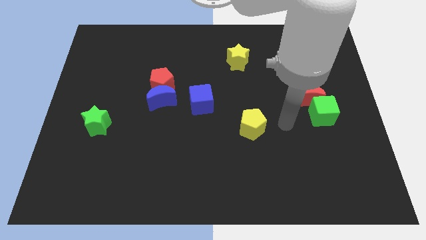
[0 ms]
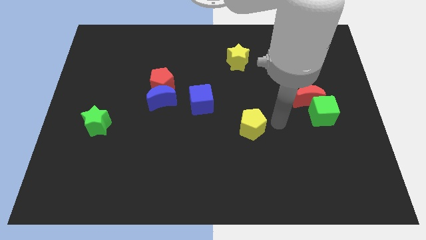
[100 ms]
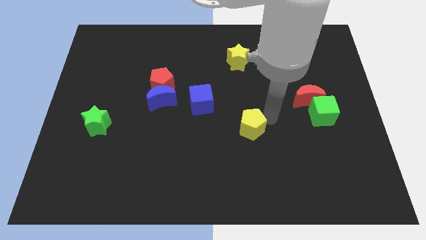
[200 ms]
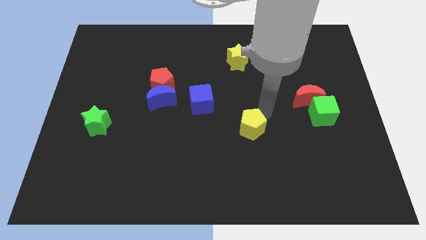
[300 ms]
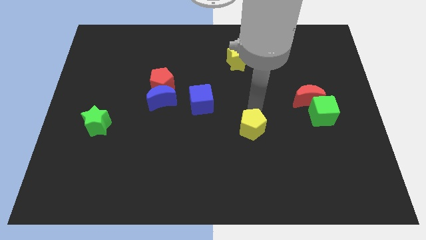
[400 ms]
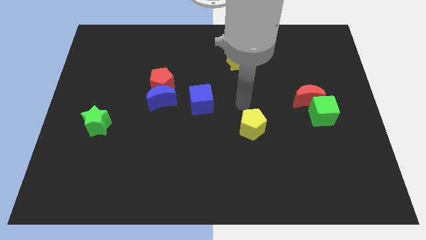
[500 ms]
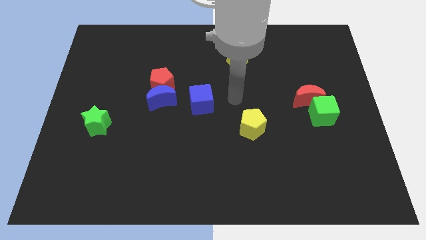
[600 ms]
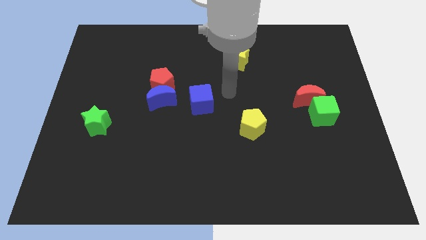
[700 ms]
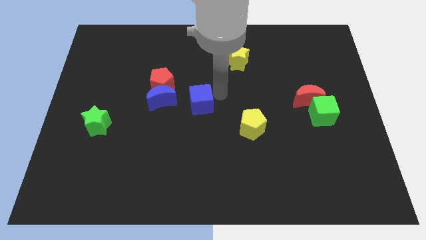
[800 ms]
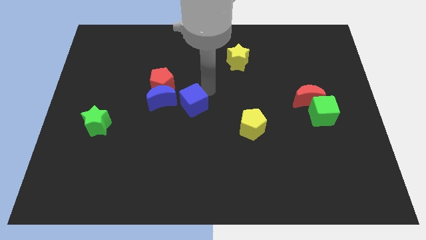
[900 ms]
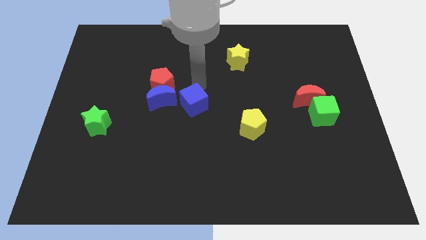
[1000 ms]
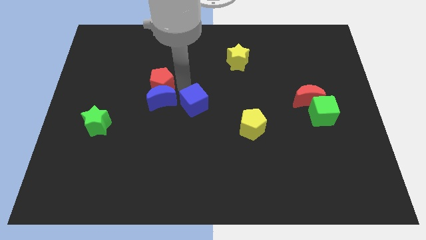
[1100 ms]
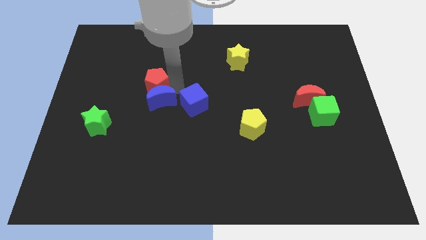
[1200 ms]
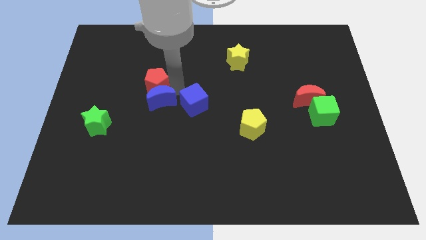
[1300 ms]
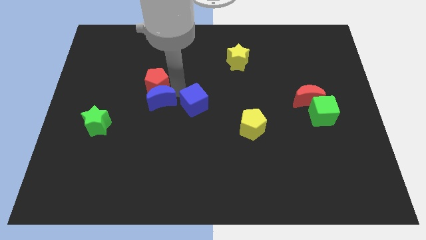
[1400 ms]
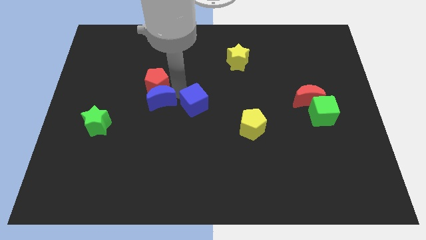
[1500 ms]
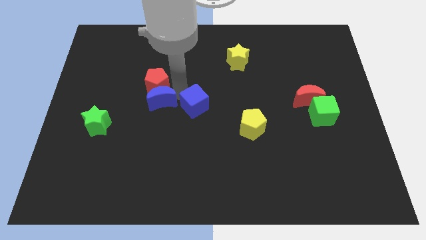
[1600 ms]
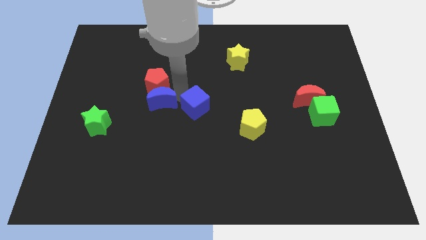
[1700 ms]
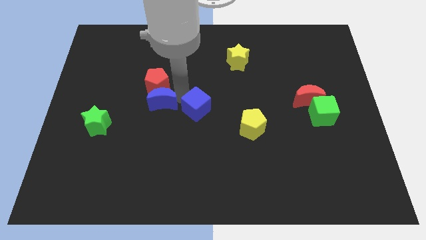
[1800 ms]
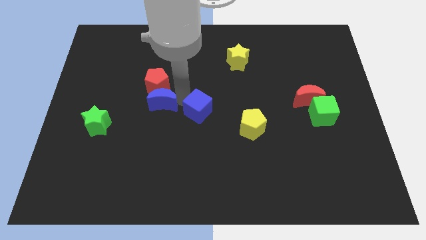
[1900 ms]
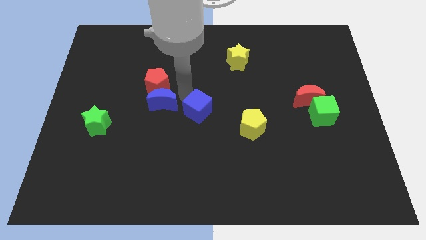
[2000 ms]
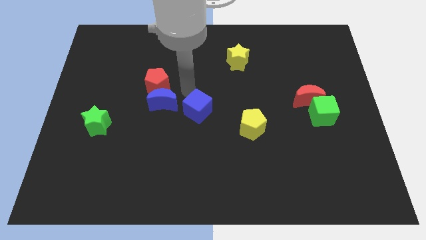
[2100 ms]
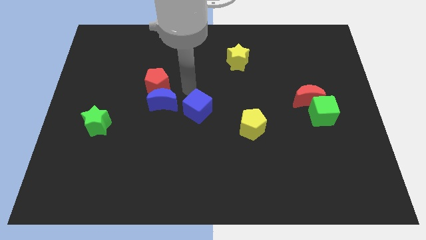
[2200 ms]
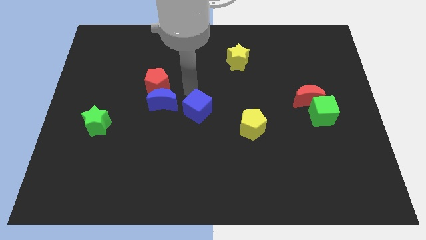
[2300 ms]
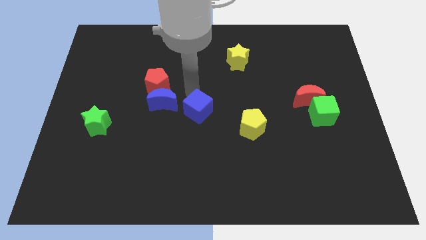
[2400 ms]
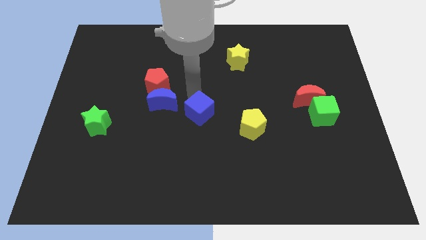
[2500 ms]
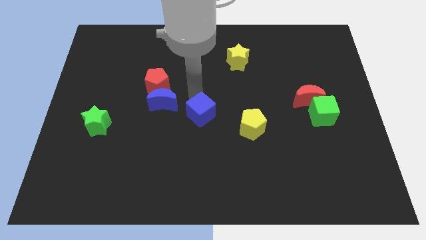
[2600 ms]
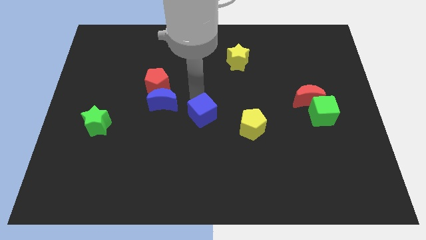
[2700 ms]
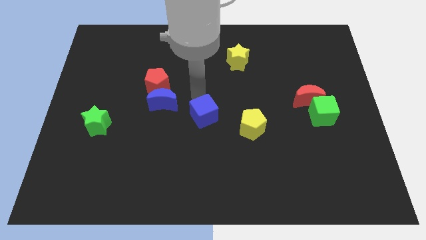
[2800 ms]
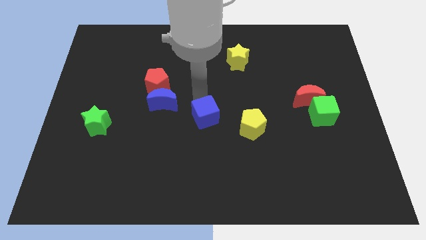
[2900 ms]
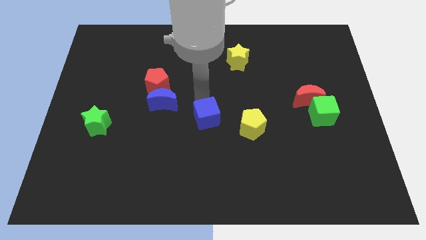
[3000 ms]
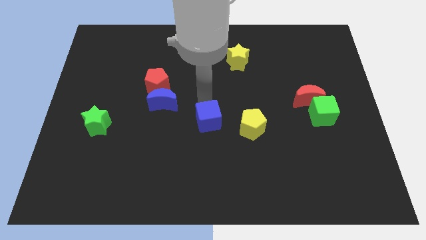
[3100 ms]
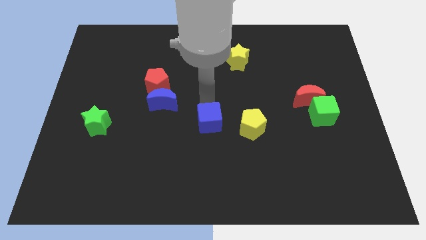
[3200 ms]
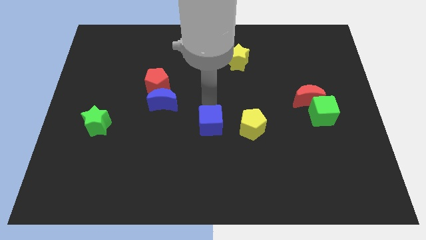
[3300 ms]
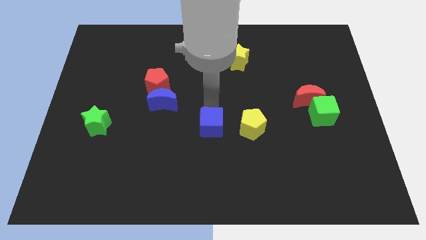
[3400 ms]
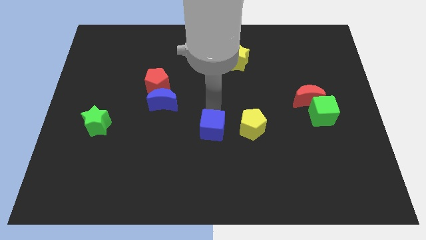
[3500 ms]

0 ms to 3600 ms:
slightly move the blue cube downwards

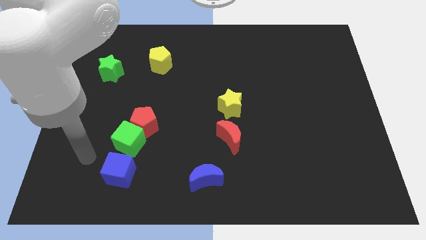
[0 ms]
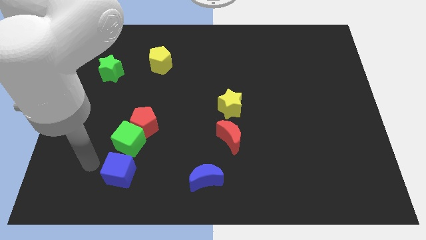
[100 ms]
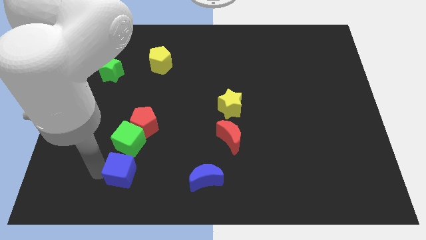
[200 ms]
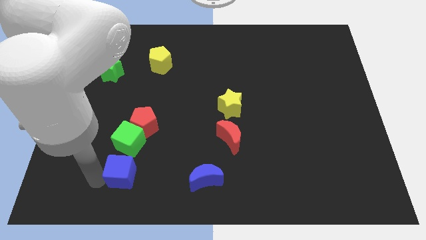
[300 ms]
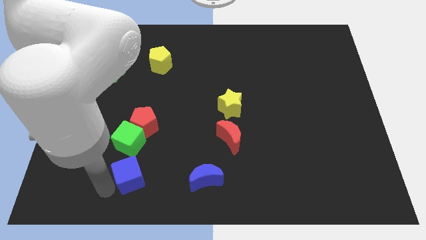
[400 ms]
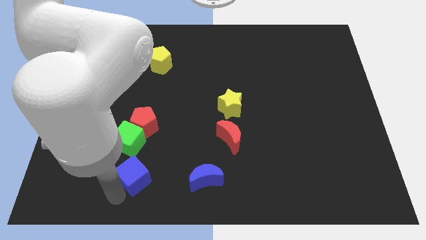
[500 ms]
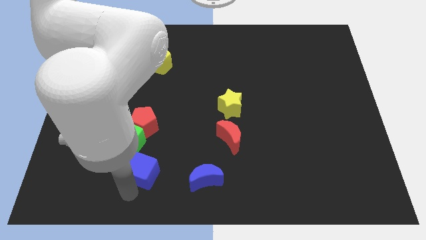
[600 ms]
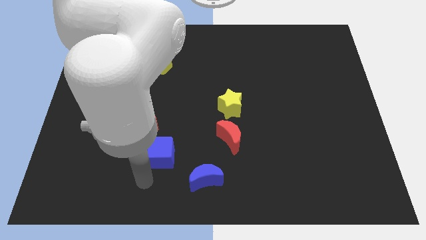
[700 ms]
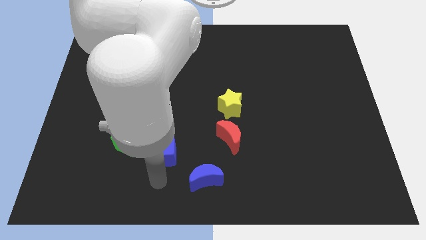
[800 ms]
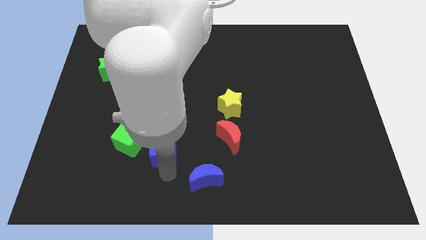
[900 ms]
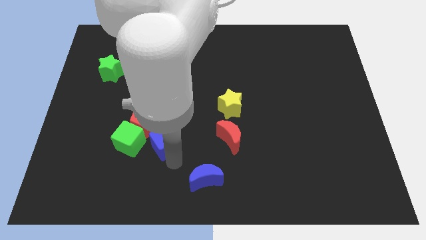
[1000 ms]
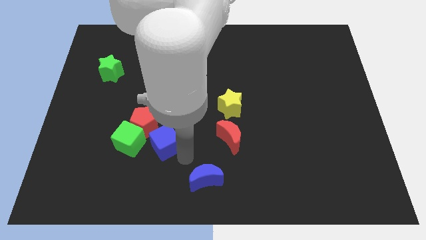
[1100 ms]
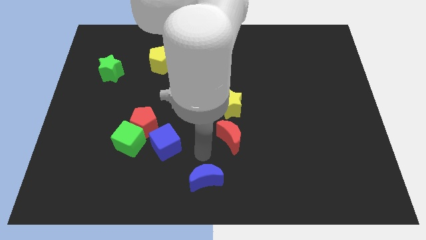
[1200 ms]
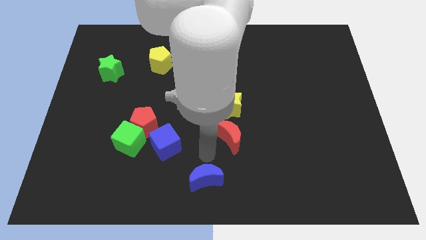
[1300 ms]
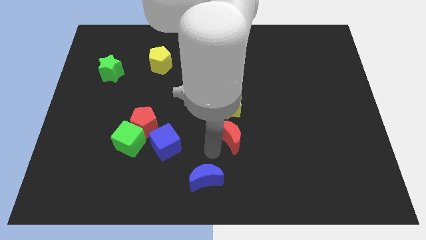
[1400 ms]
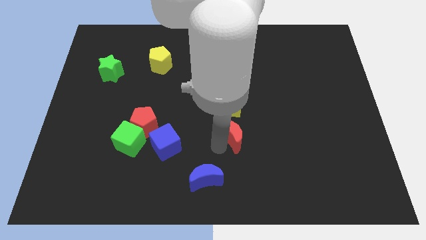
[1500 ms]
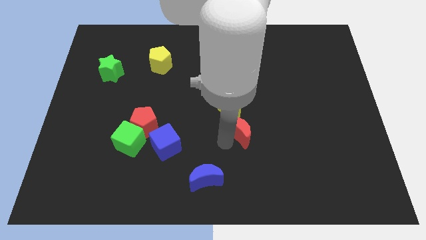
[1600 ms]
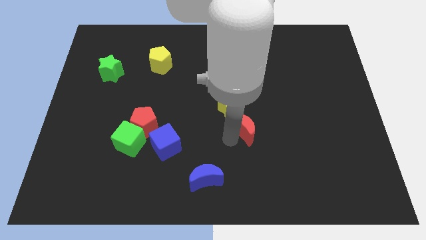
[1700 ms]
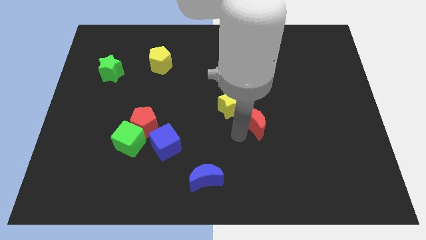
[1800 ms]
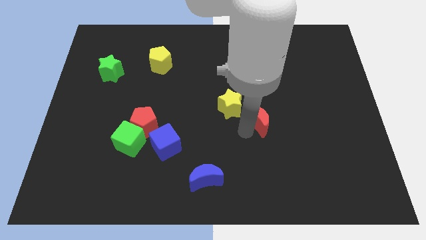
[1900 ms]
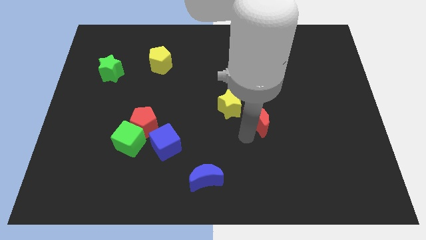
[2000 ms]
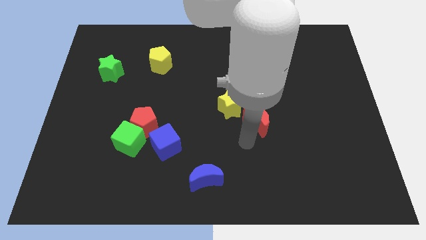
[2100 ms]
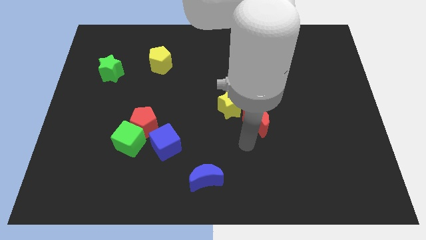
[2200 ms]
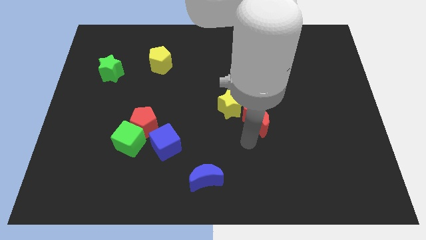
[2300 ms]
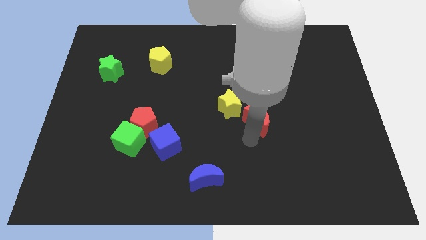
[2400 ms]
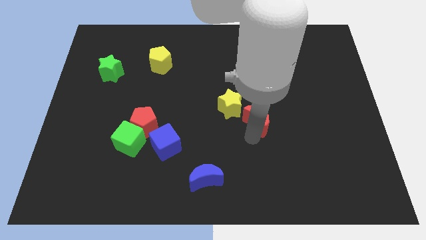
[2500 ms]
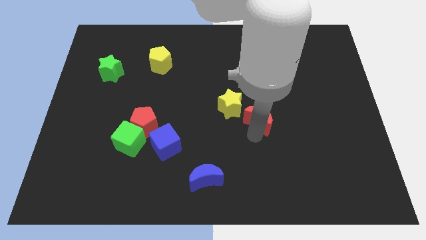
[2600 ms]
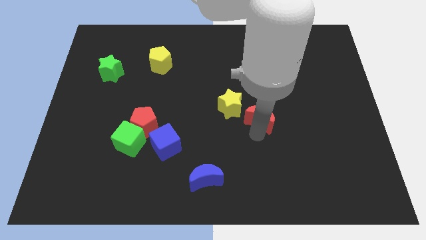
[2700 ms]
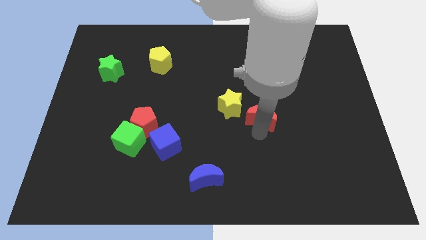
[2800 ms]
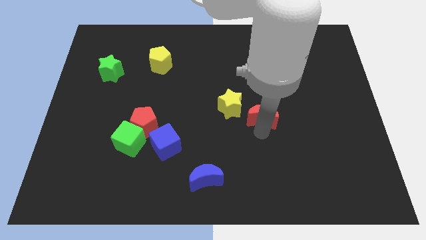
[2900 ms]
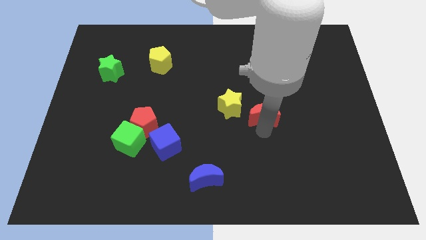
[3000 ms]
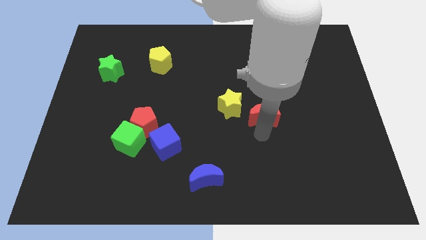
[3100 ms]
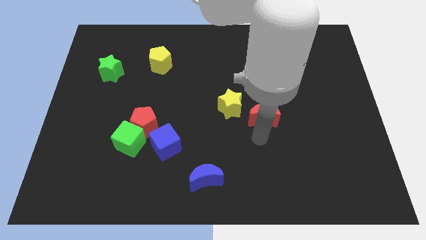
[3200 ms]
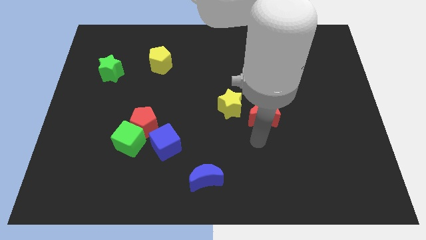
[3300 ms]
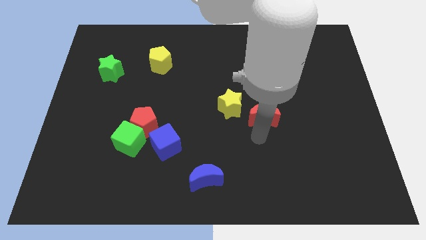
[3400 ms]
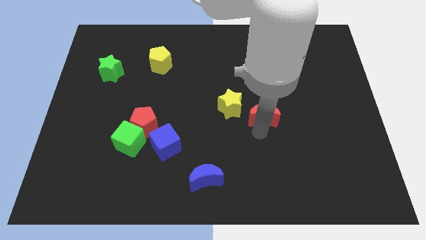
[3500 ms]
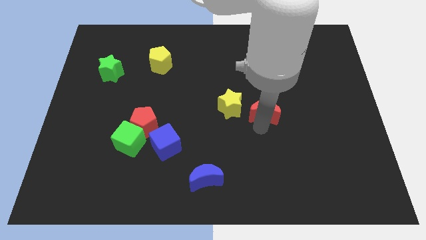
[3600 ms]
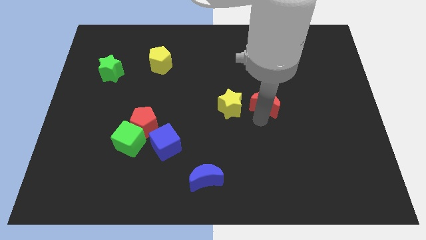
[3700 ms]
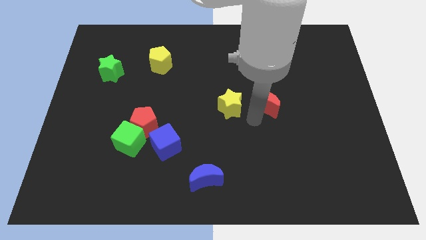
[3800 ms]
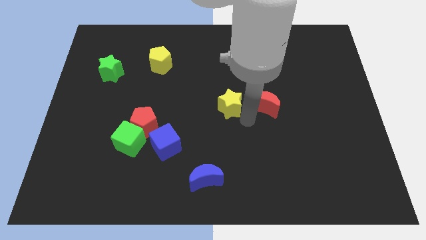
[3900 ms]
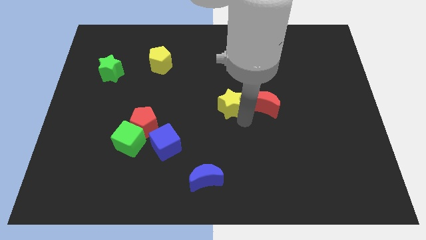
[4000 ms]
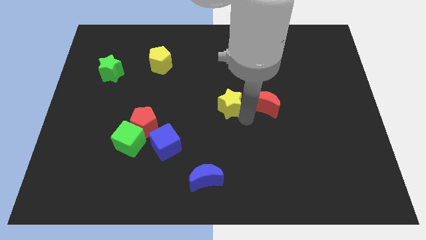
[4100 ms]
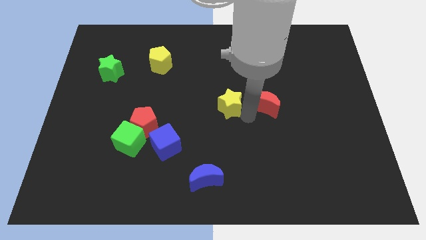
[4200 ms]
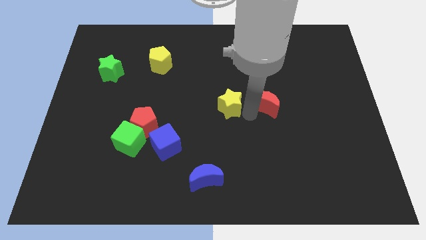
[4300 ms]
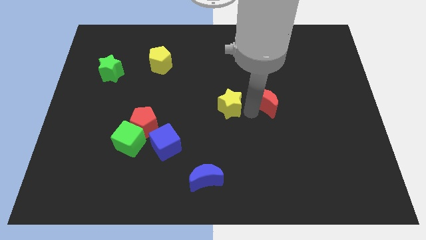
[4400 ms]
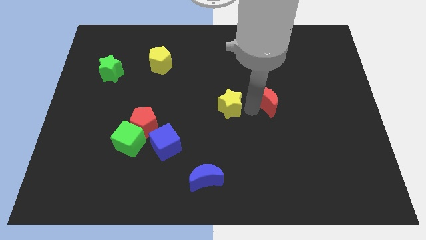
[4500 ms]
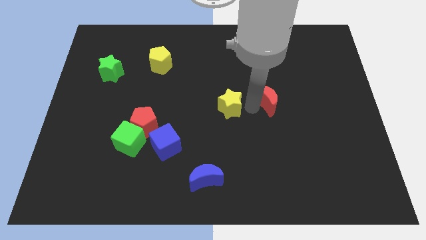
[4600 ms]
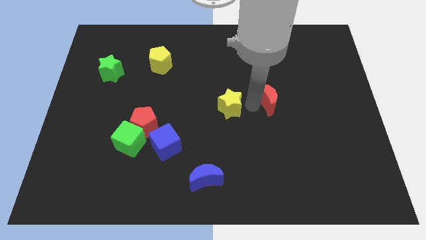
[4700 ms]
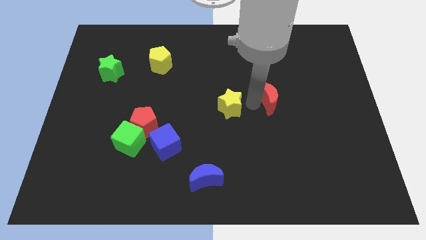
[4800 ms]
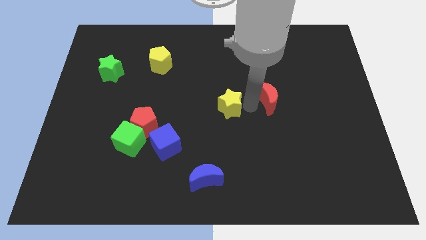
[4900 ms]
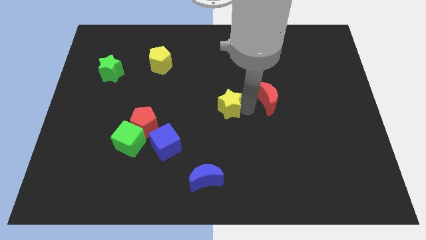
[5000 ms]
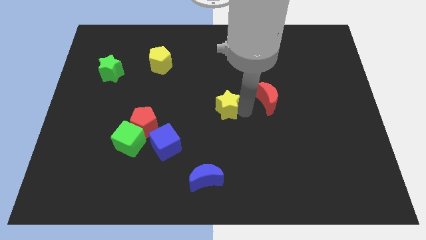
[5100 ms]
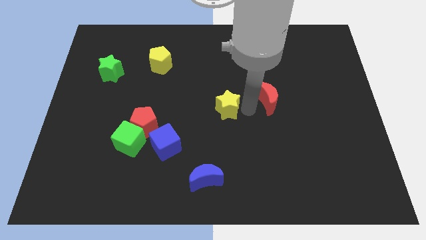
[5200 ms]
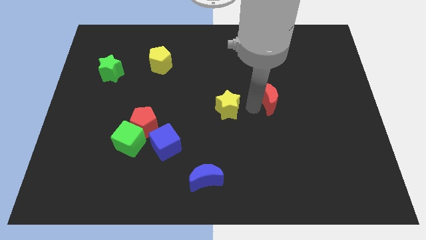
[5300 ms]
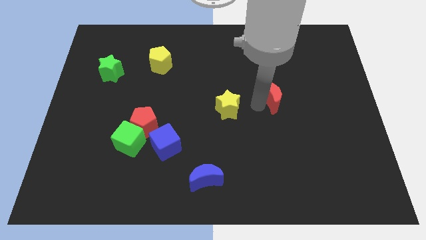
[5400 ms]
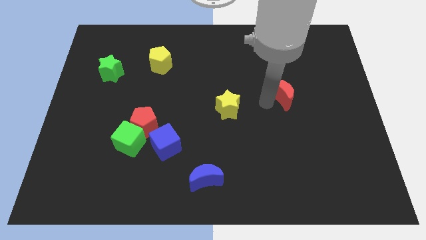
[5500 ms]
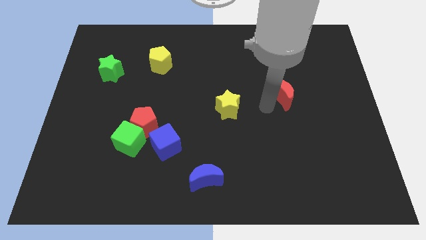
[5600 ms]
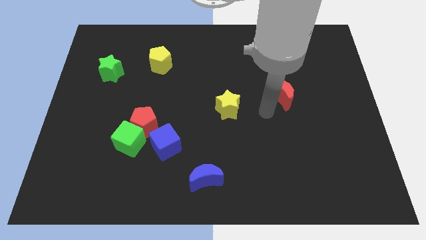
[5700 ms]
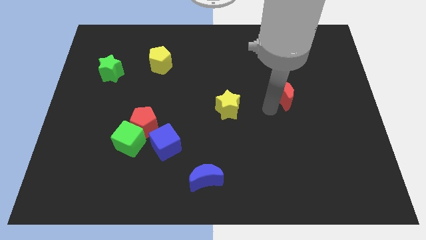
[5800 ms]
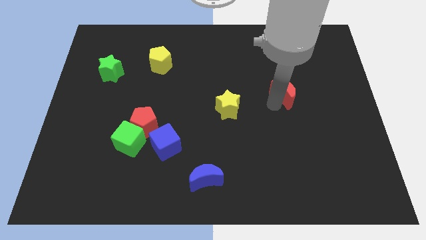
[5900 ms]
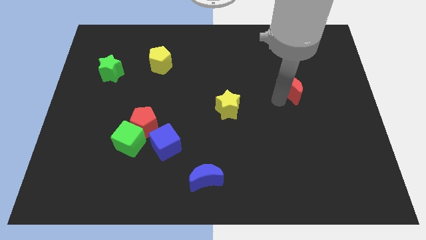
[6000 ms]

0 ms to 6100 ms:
push the red moon up and then right
